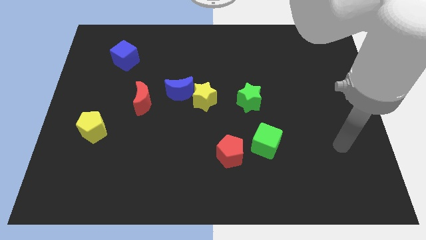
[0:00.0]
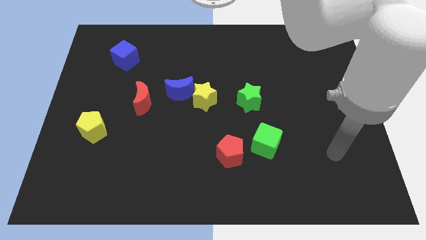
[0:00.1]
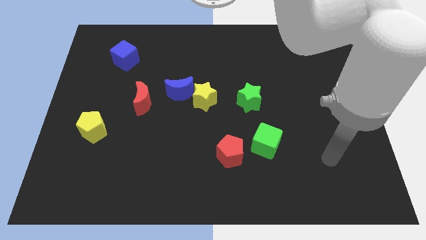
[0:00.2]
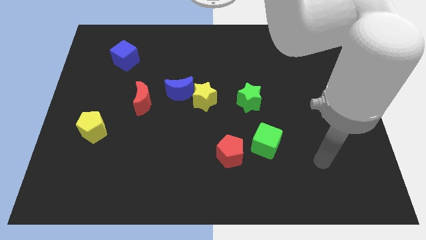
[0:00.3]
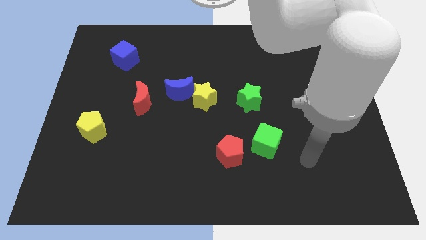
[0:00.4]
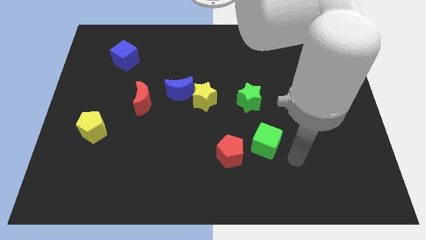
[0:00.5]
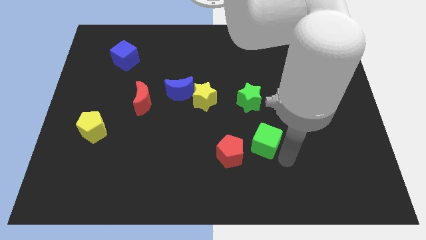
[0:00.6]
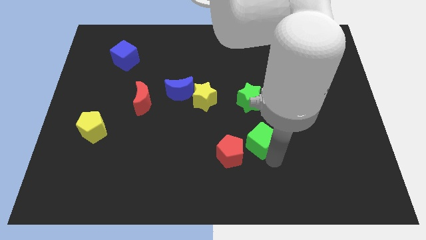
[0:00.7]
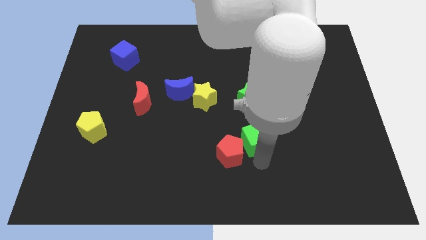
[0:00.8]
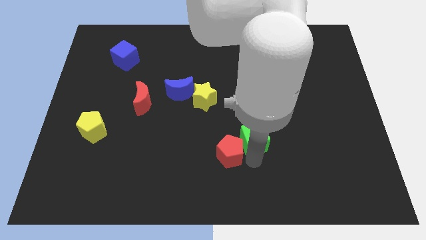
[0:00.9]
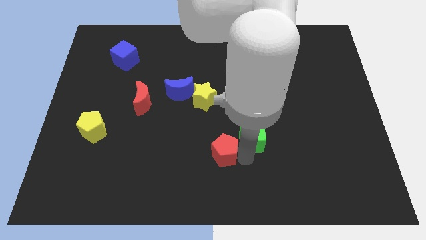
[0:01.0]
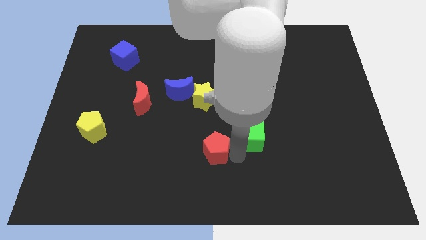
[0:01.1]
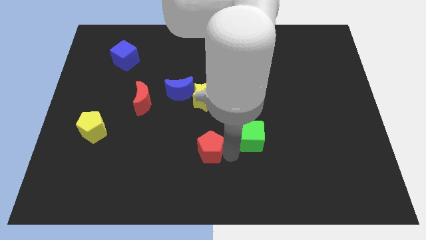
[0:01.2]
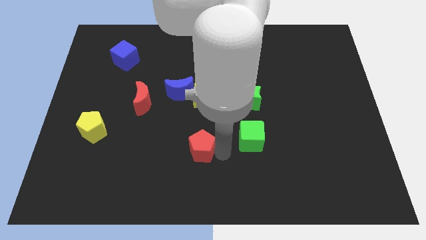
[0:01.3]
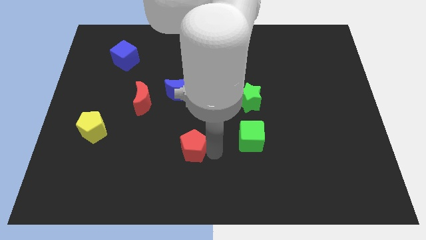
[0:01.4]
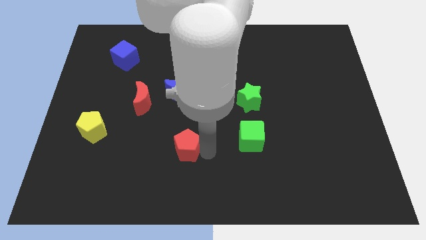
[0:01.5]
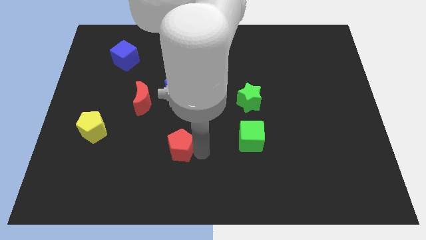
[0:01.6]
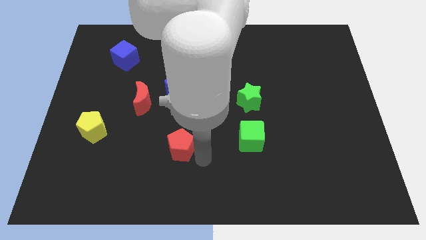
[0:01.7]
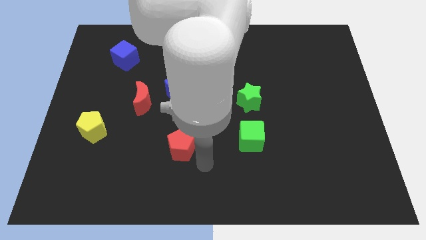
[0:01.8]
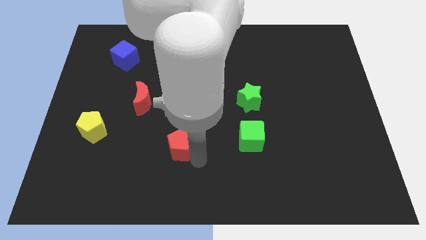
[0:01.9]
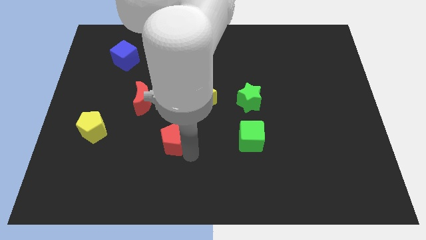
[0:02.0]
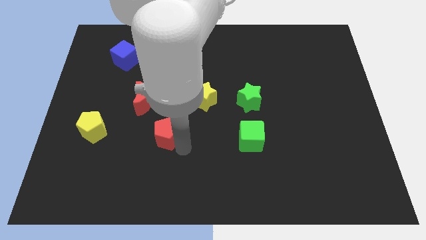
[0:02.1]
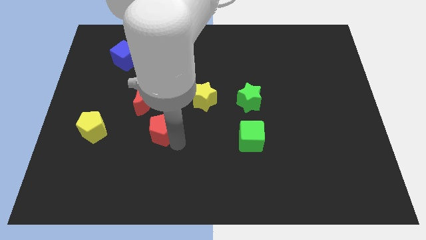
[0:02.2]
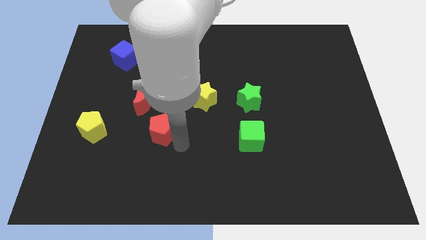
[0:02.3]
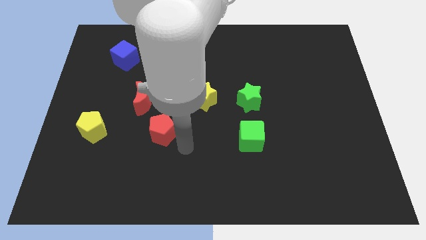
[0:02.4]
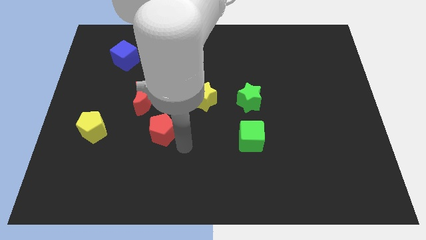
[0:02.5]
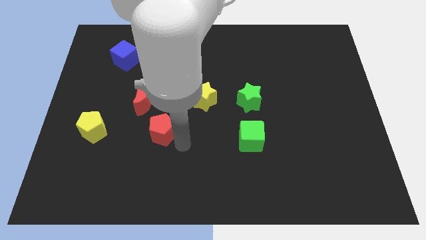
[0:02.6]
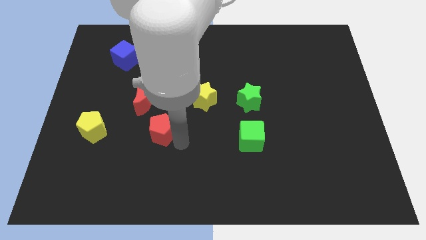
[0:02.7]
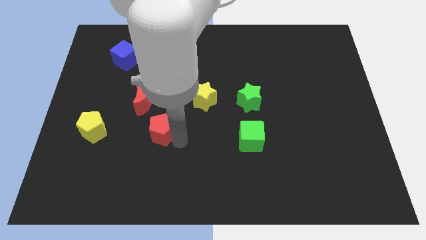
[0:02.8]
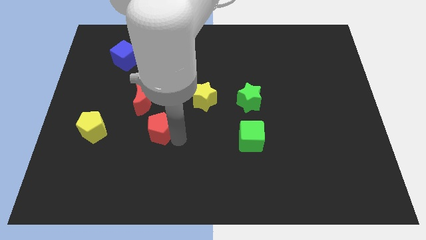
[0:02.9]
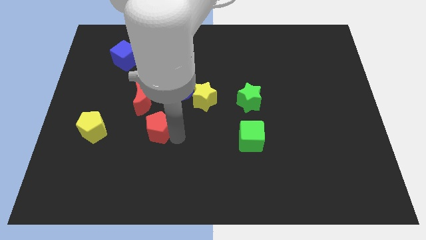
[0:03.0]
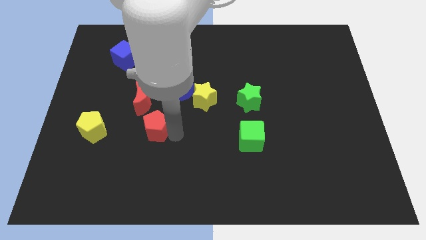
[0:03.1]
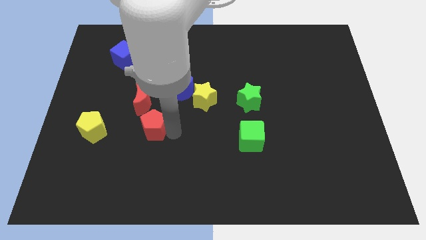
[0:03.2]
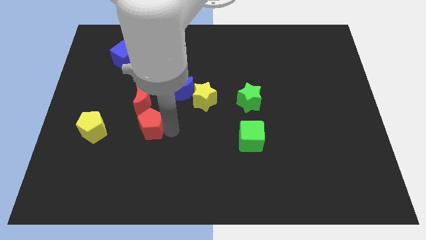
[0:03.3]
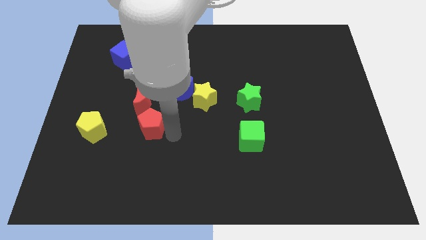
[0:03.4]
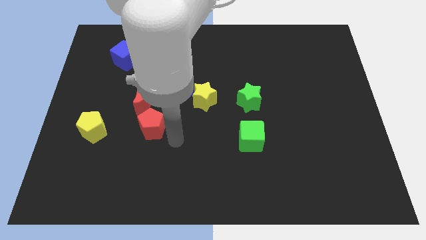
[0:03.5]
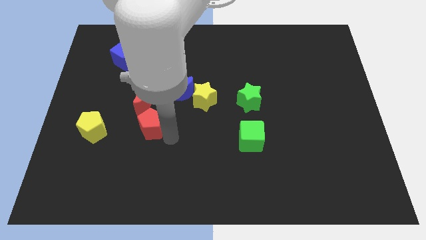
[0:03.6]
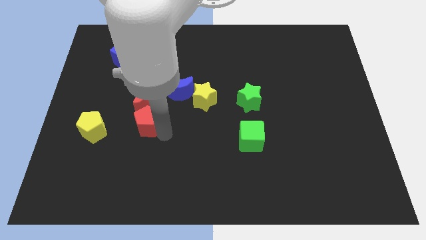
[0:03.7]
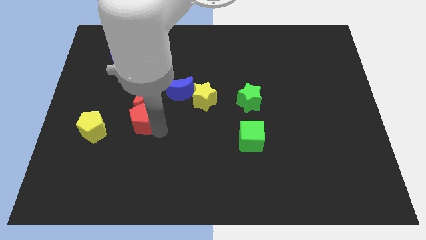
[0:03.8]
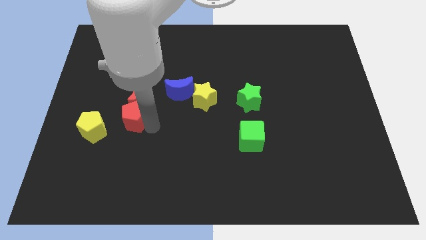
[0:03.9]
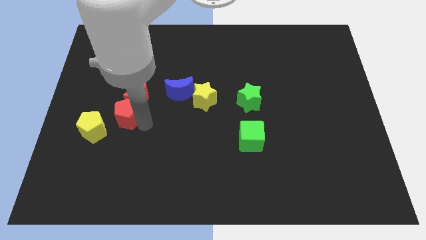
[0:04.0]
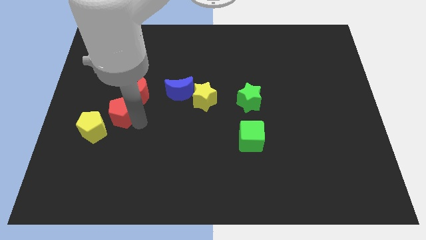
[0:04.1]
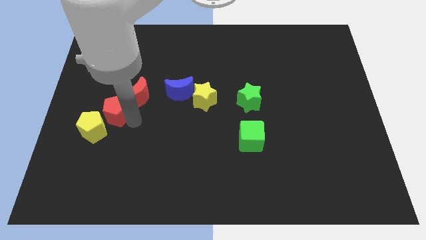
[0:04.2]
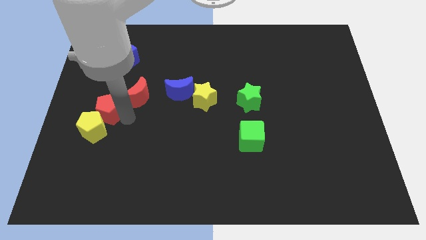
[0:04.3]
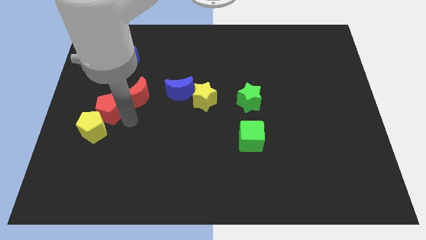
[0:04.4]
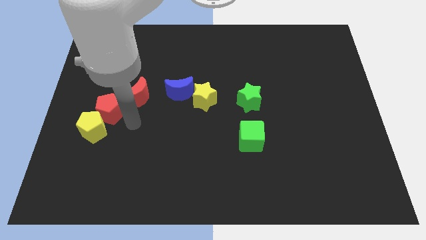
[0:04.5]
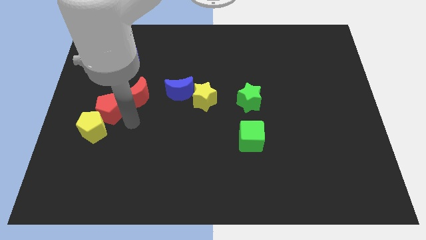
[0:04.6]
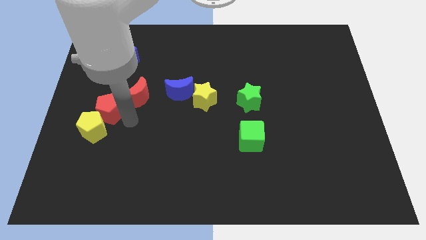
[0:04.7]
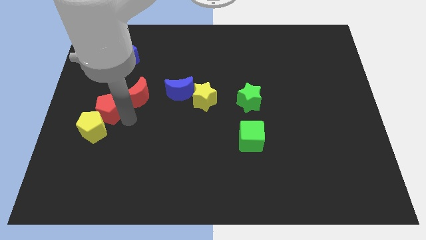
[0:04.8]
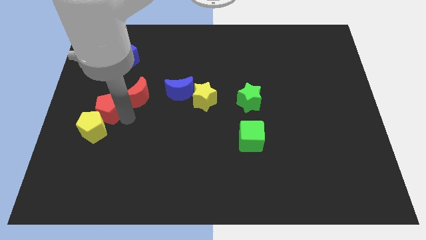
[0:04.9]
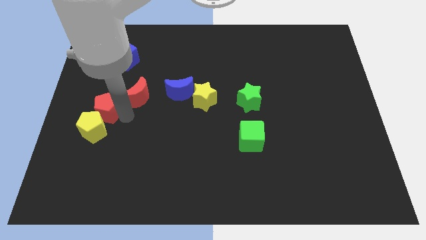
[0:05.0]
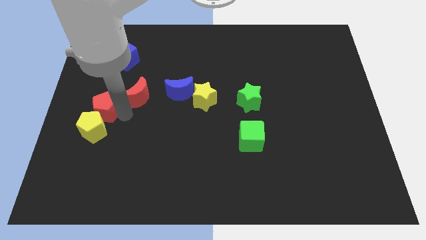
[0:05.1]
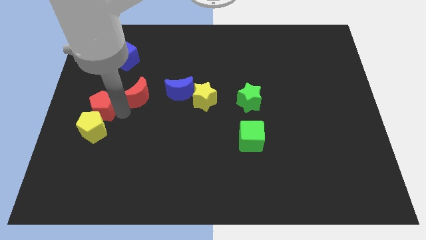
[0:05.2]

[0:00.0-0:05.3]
slide the red pentagon to the center left
